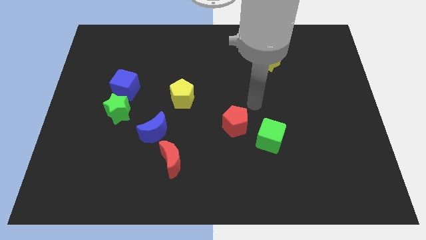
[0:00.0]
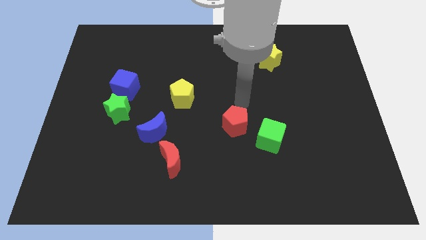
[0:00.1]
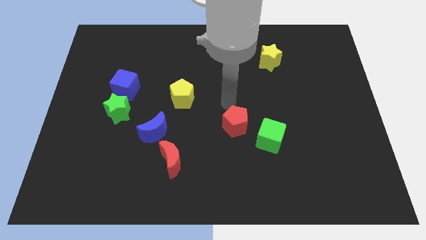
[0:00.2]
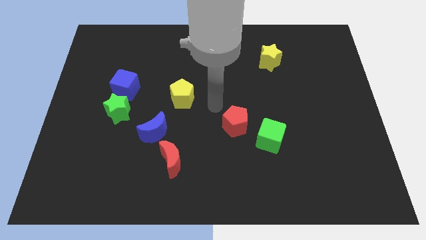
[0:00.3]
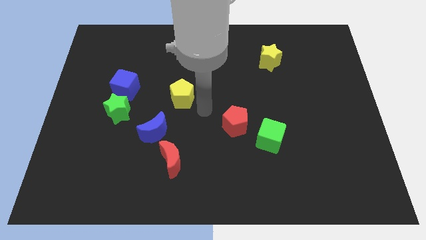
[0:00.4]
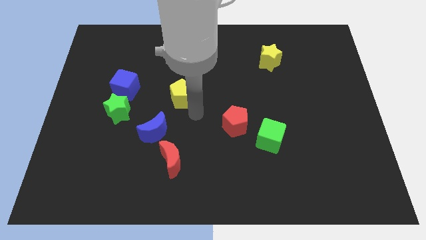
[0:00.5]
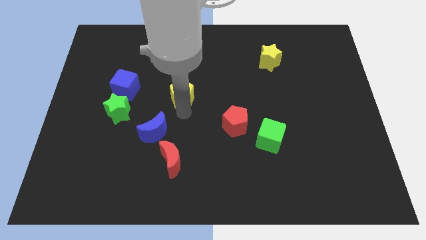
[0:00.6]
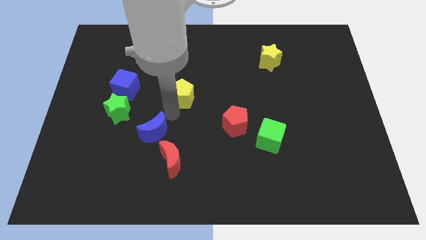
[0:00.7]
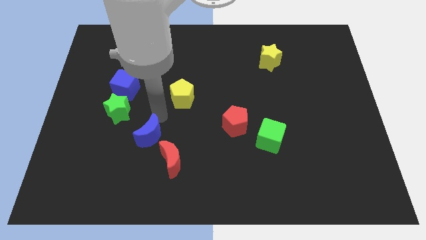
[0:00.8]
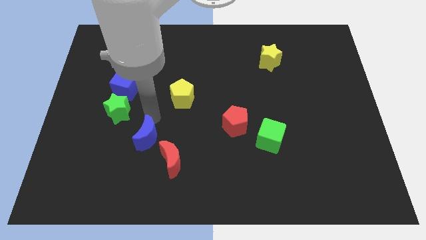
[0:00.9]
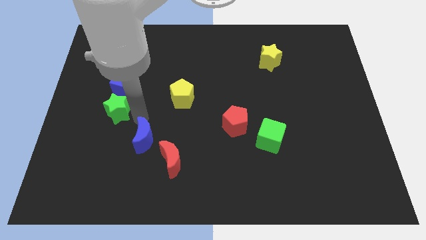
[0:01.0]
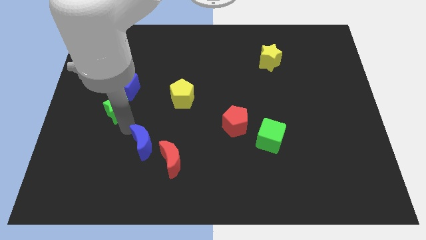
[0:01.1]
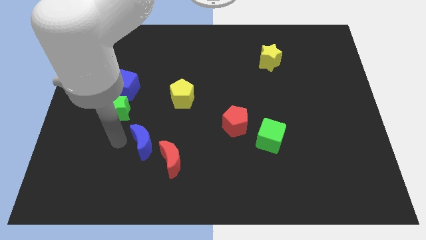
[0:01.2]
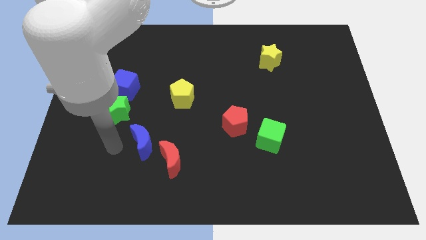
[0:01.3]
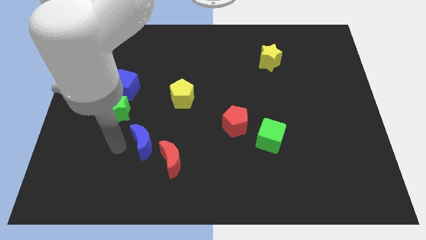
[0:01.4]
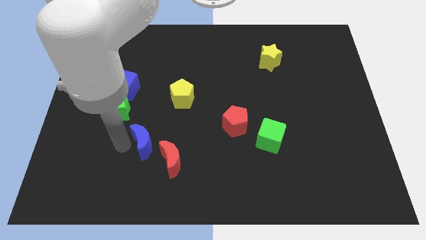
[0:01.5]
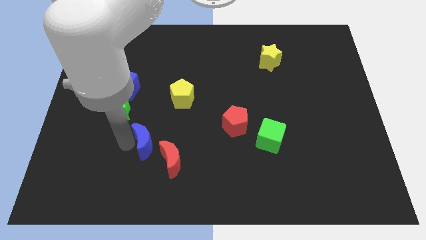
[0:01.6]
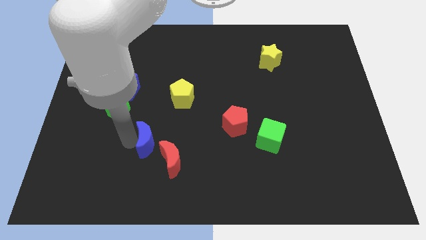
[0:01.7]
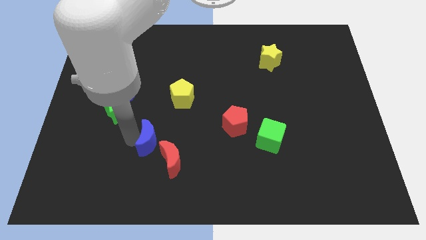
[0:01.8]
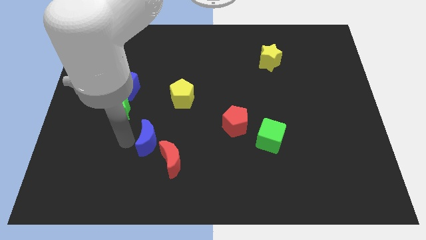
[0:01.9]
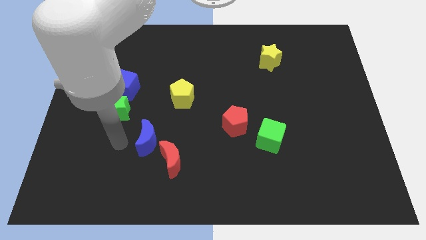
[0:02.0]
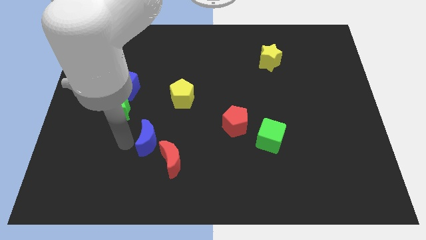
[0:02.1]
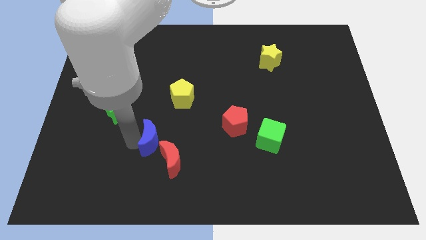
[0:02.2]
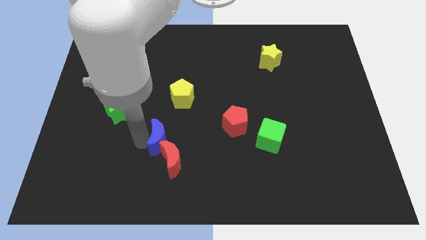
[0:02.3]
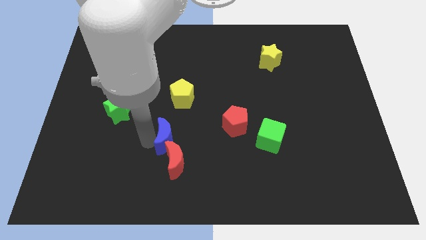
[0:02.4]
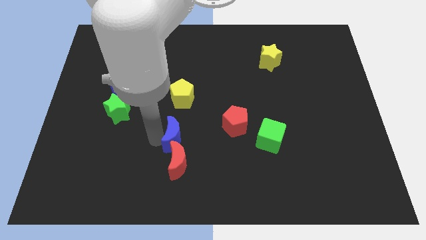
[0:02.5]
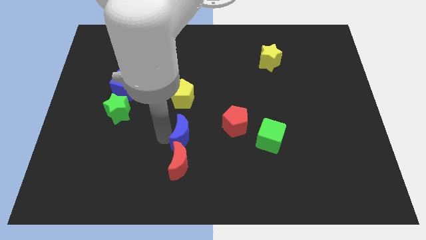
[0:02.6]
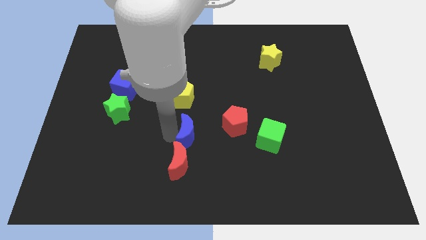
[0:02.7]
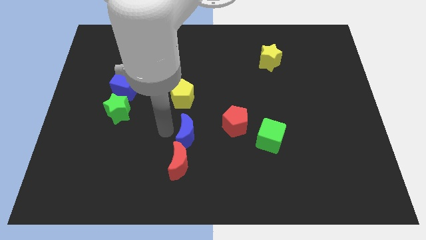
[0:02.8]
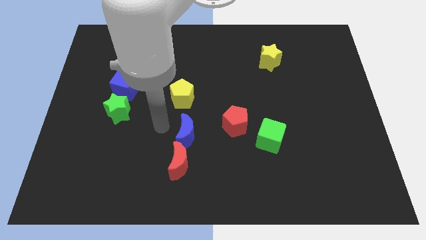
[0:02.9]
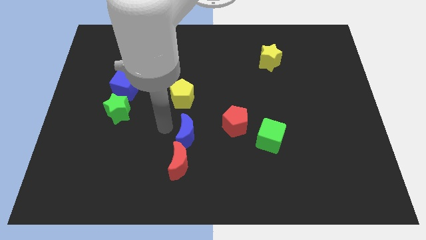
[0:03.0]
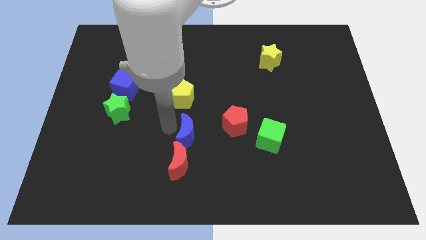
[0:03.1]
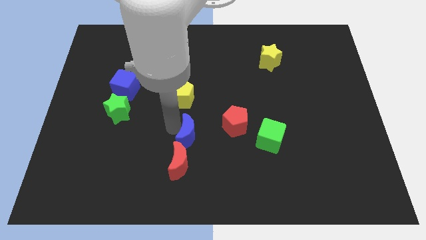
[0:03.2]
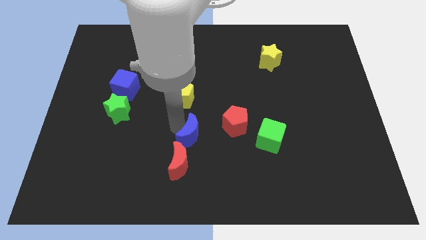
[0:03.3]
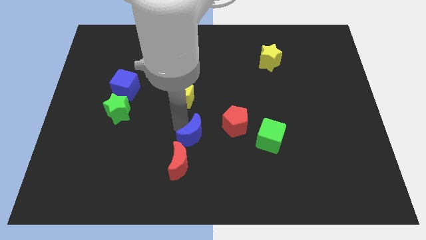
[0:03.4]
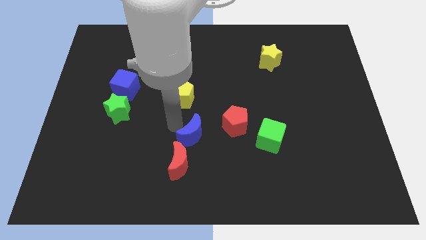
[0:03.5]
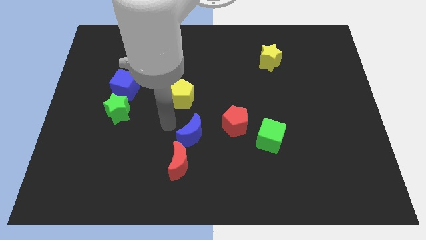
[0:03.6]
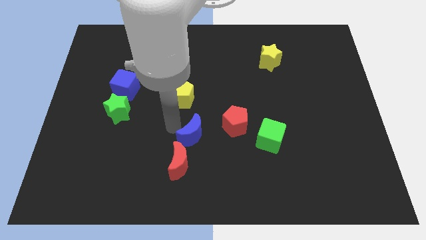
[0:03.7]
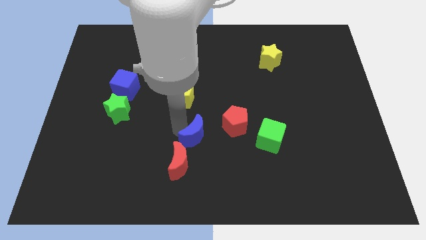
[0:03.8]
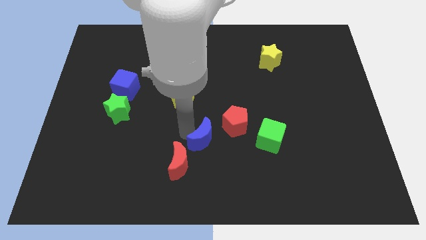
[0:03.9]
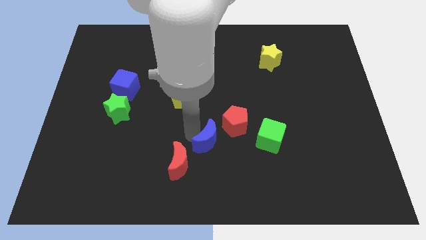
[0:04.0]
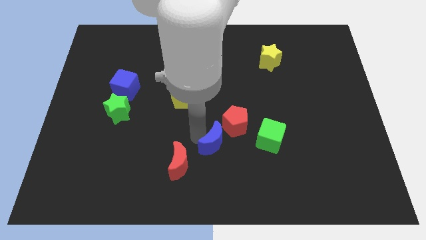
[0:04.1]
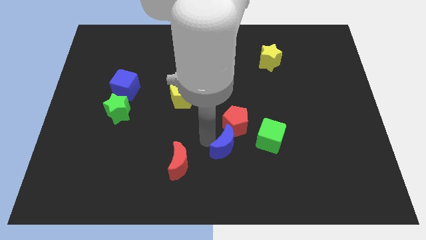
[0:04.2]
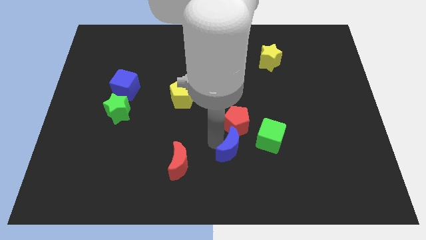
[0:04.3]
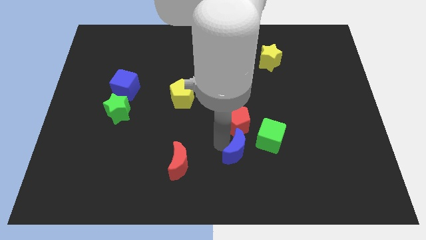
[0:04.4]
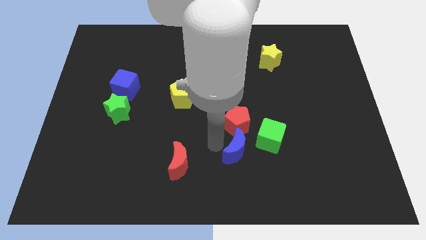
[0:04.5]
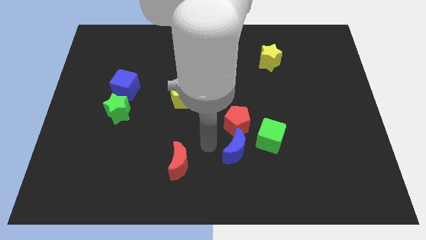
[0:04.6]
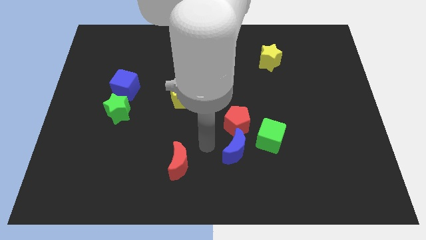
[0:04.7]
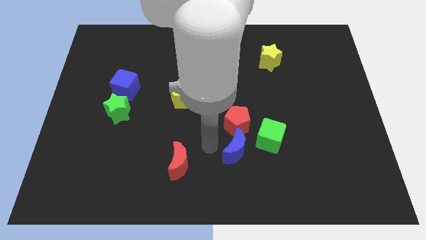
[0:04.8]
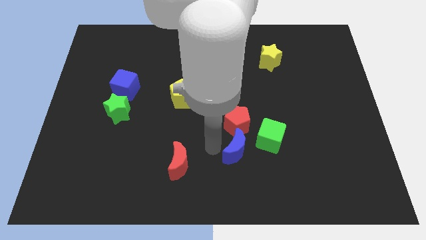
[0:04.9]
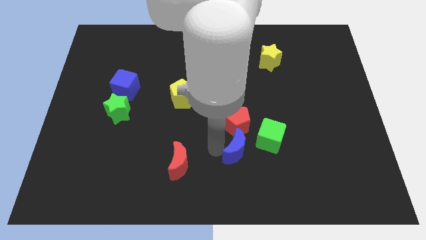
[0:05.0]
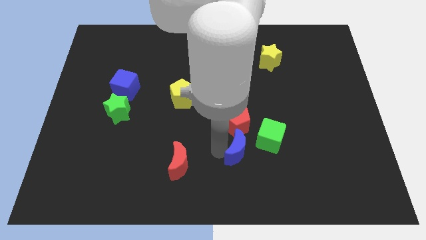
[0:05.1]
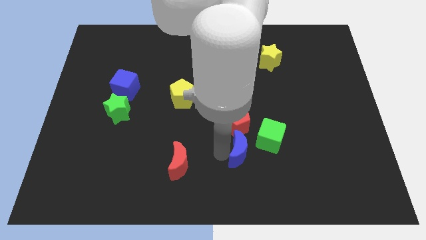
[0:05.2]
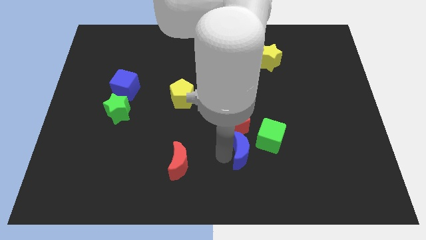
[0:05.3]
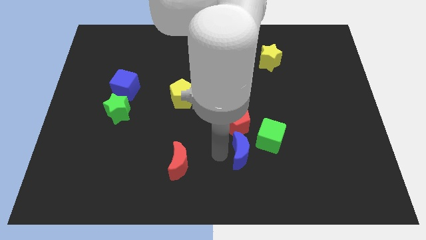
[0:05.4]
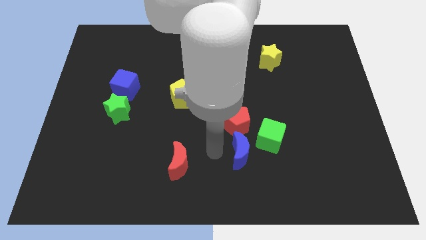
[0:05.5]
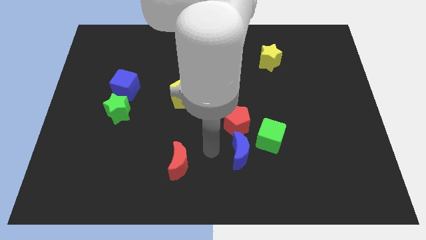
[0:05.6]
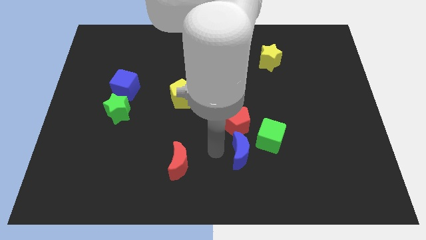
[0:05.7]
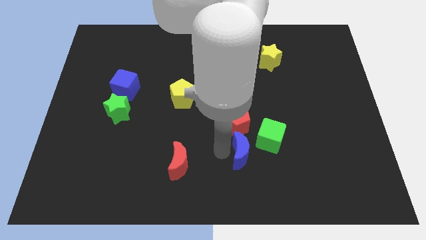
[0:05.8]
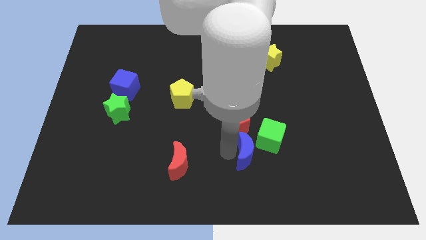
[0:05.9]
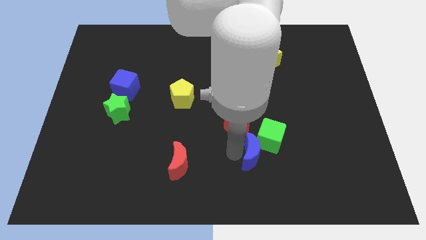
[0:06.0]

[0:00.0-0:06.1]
push the blue moon to the right

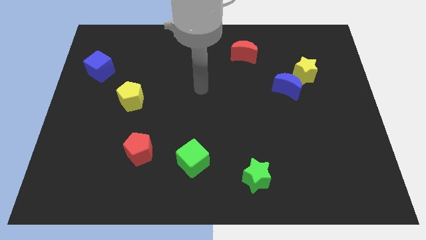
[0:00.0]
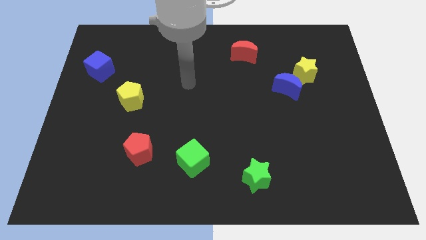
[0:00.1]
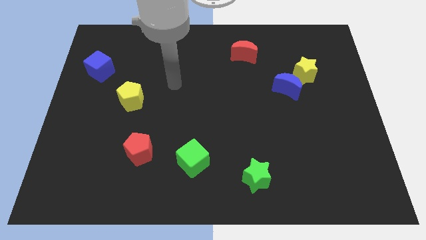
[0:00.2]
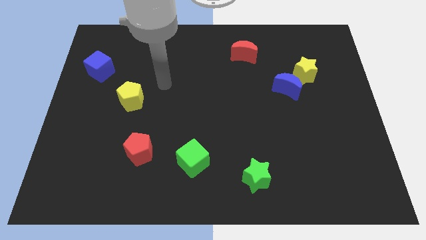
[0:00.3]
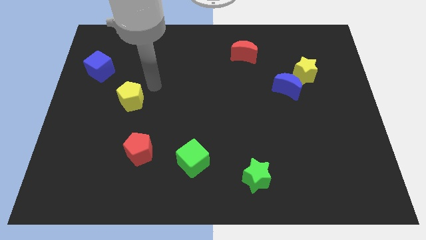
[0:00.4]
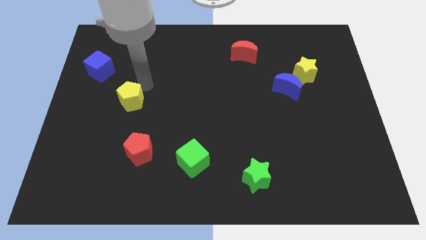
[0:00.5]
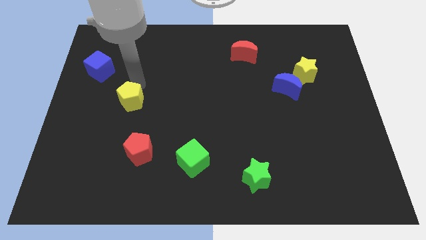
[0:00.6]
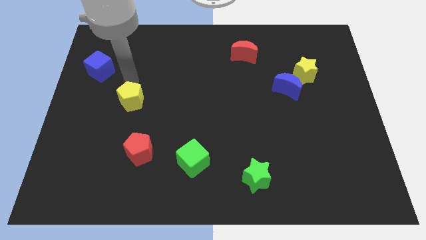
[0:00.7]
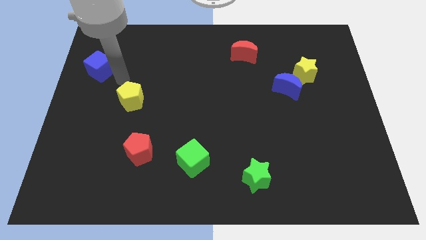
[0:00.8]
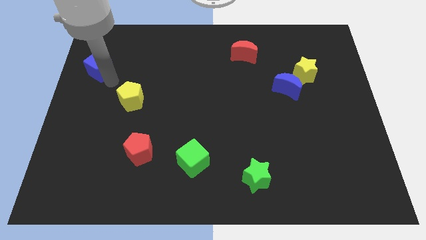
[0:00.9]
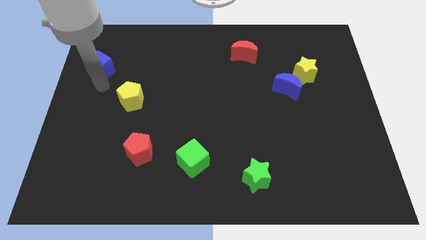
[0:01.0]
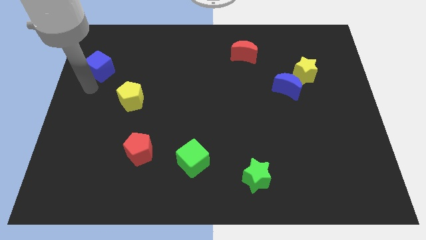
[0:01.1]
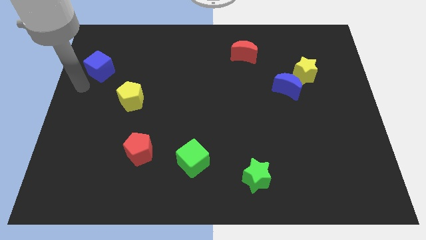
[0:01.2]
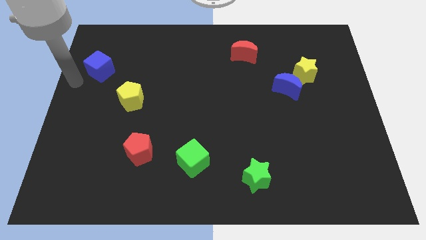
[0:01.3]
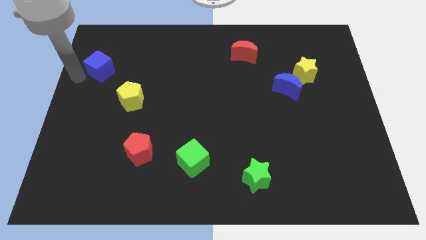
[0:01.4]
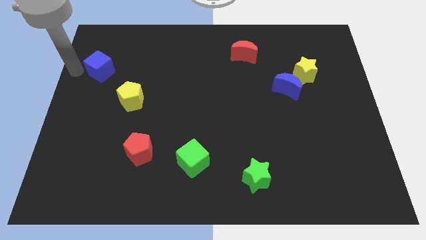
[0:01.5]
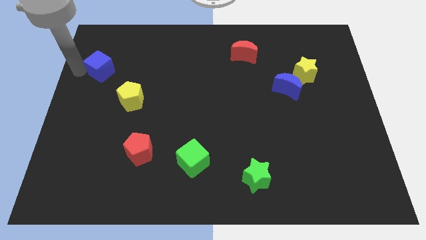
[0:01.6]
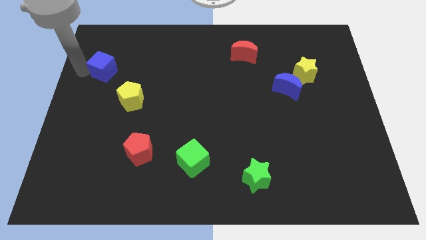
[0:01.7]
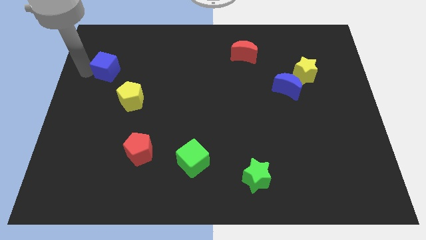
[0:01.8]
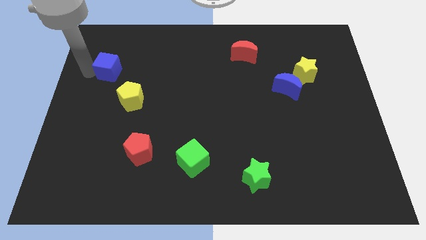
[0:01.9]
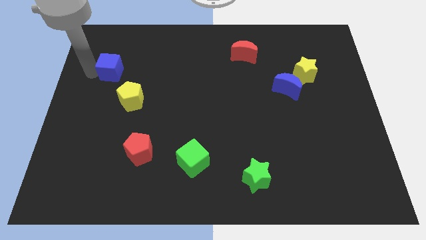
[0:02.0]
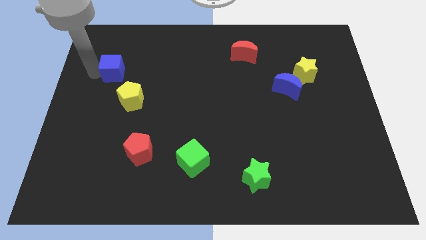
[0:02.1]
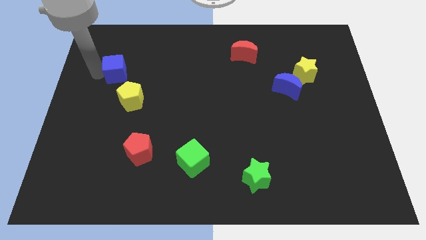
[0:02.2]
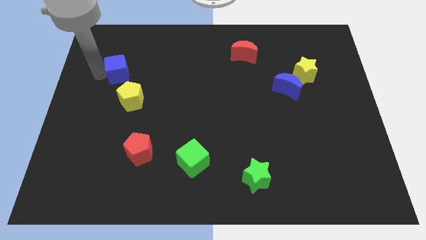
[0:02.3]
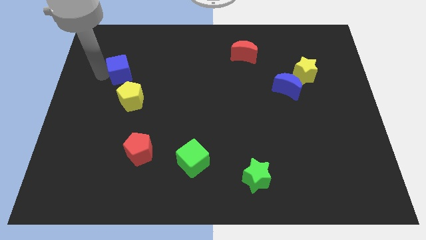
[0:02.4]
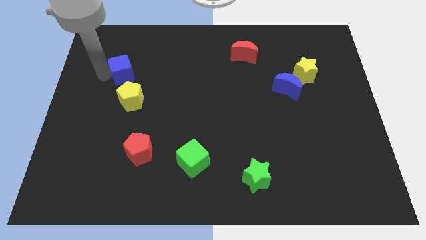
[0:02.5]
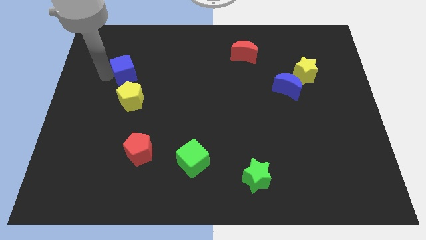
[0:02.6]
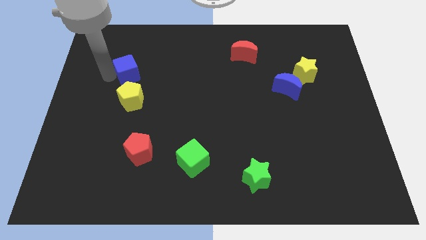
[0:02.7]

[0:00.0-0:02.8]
push the blue cube a bit to the right
